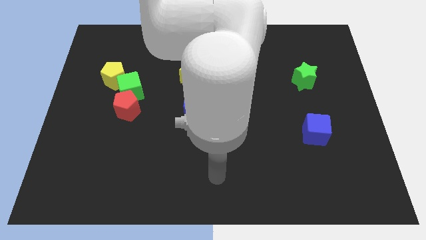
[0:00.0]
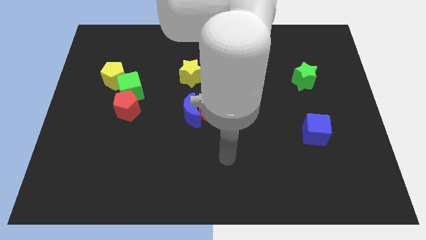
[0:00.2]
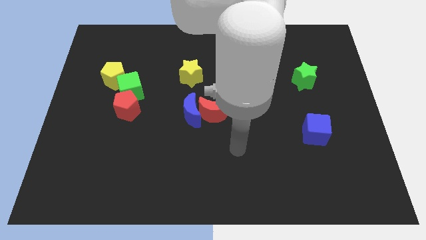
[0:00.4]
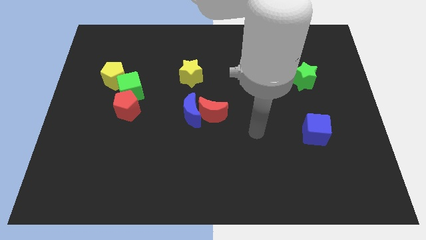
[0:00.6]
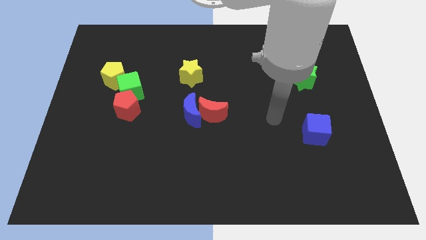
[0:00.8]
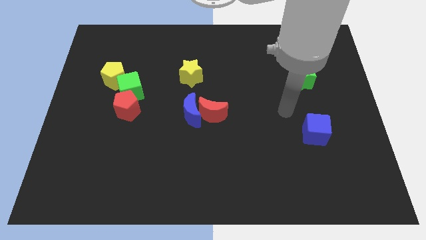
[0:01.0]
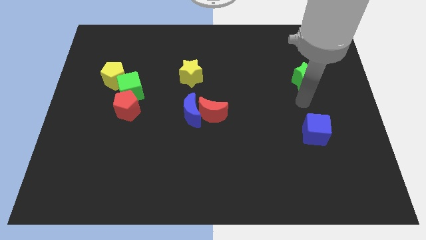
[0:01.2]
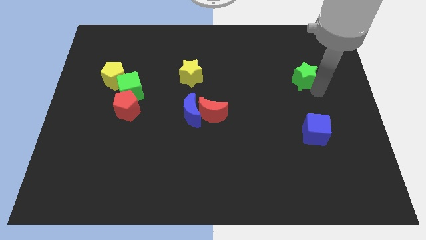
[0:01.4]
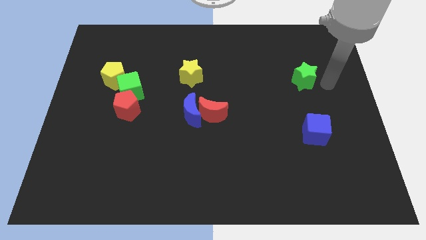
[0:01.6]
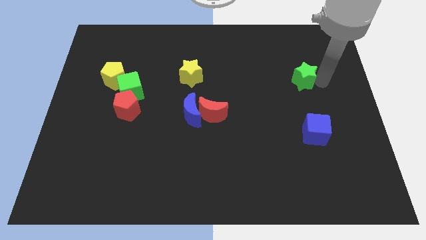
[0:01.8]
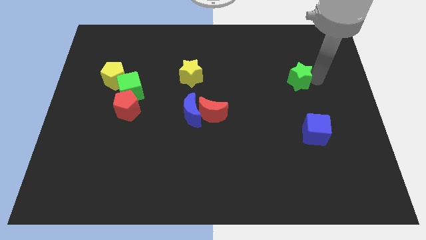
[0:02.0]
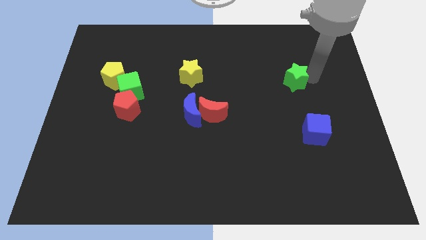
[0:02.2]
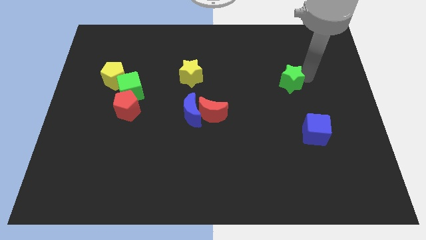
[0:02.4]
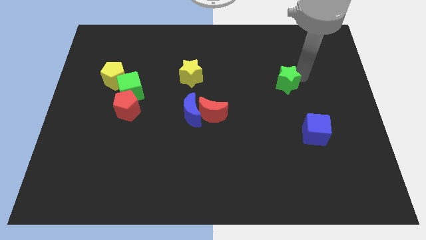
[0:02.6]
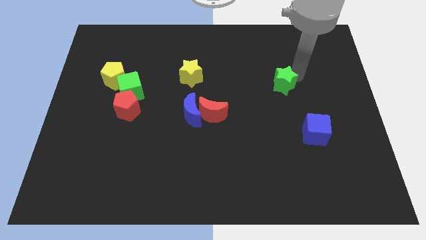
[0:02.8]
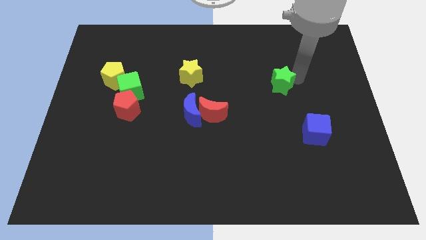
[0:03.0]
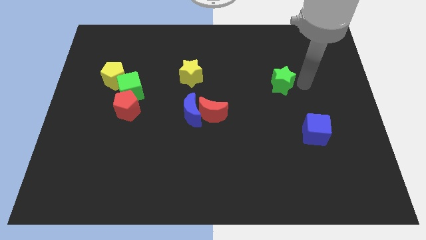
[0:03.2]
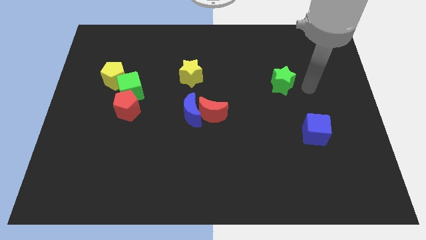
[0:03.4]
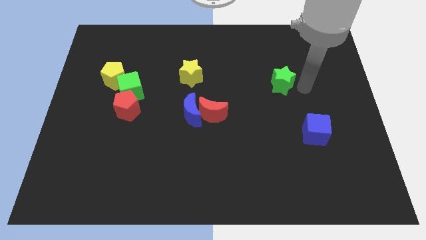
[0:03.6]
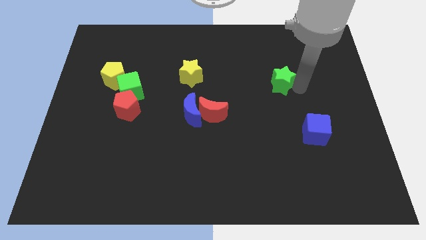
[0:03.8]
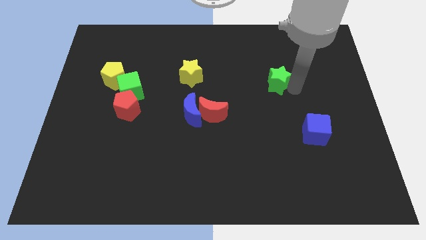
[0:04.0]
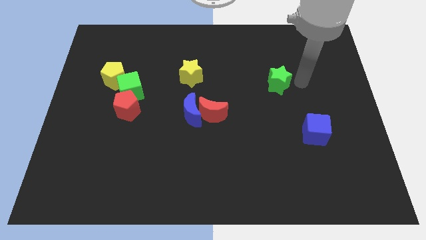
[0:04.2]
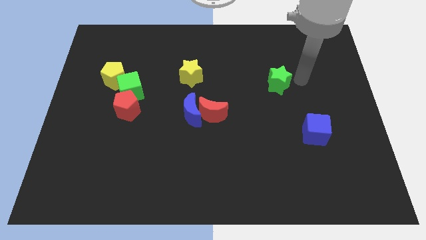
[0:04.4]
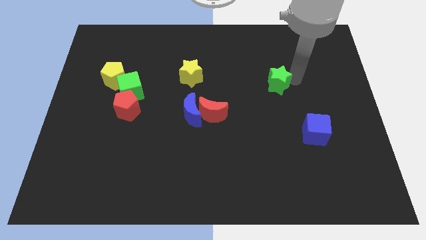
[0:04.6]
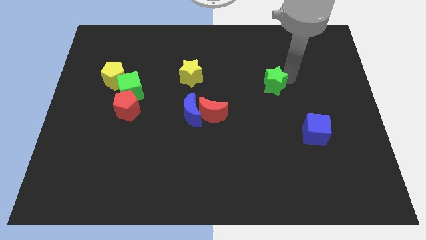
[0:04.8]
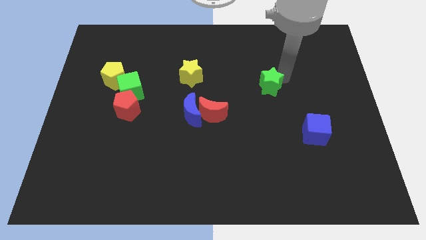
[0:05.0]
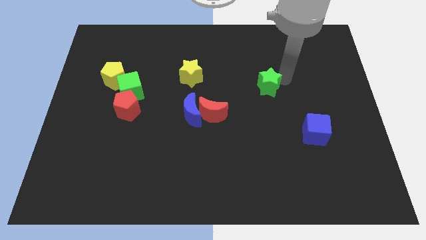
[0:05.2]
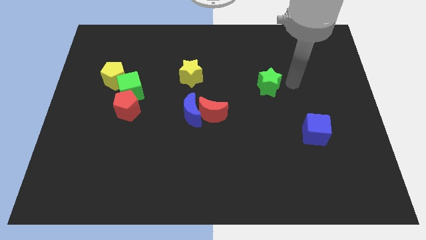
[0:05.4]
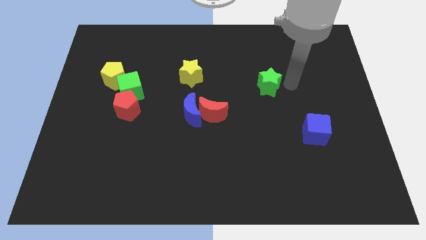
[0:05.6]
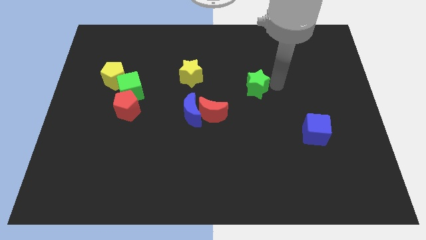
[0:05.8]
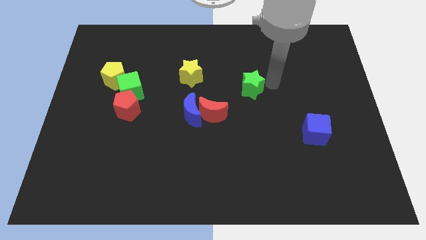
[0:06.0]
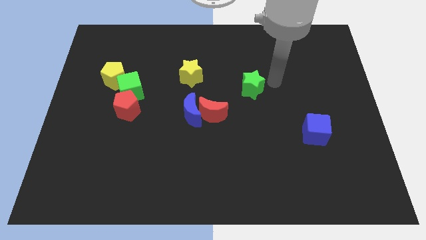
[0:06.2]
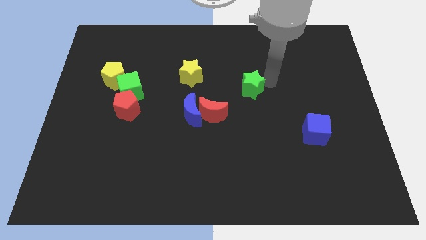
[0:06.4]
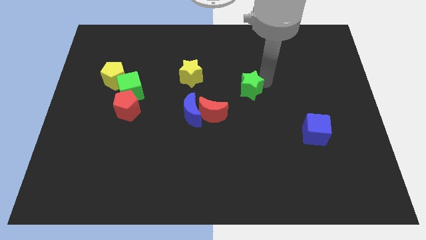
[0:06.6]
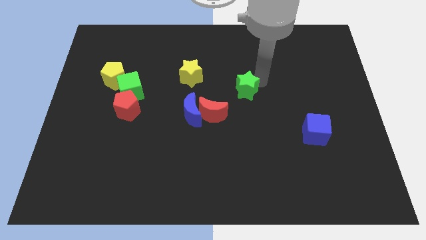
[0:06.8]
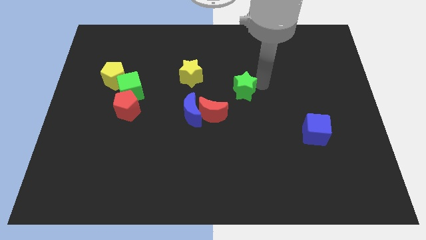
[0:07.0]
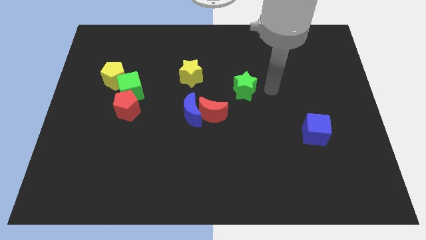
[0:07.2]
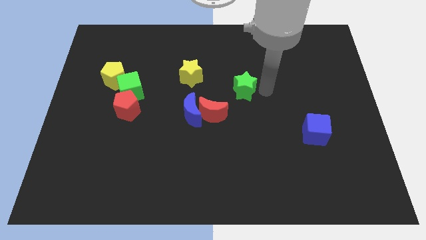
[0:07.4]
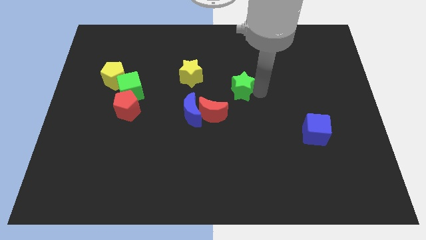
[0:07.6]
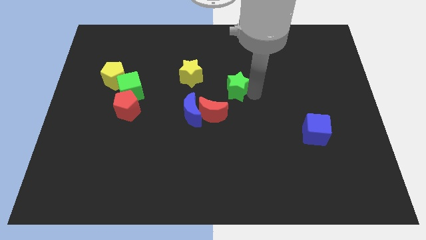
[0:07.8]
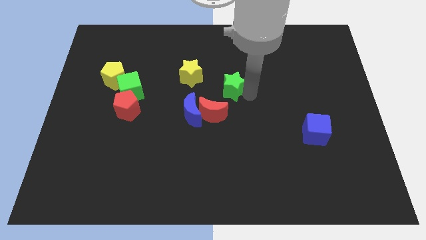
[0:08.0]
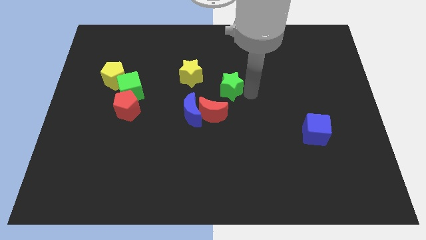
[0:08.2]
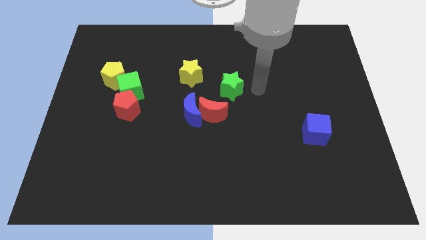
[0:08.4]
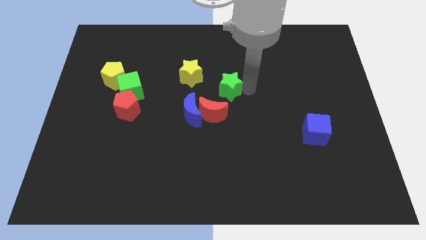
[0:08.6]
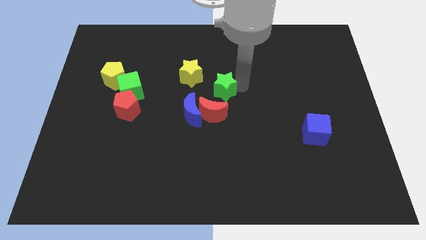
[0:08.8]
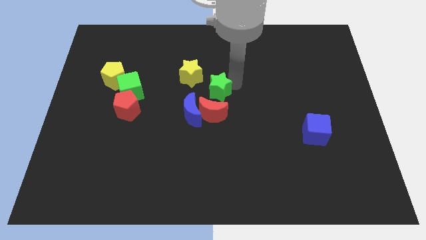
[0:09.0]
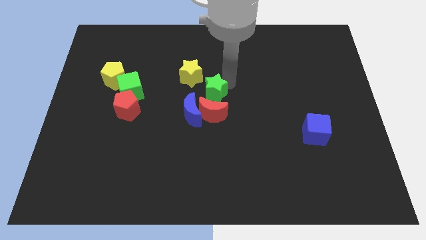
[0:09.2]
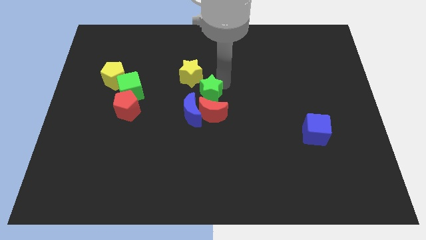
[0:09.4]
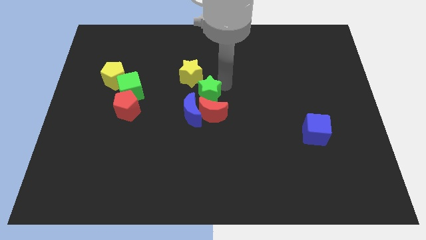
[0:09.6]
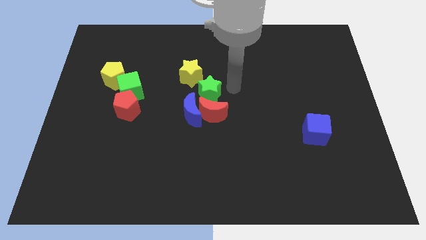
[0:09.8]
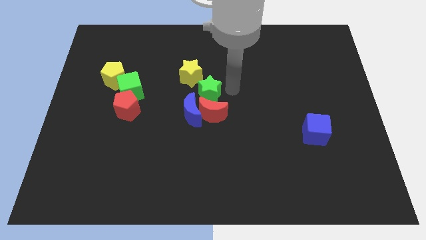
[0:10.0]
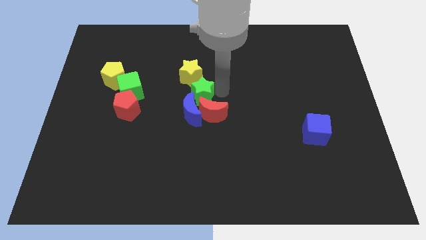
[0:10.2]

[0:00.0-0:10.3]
slide the green star towards the blue moon

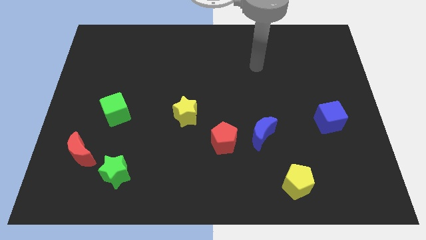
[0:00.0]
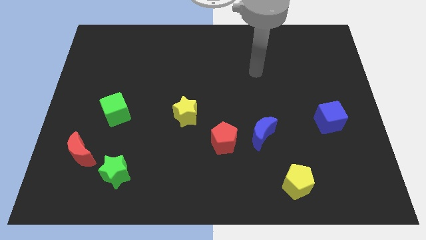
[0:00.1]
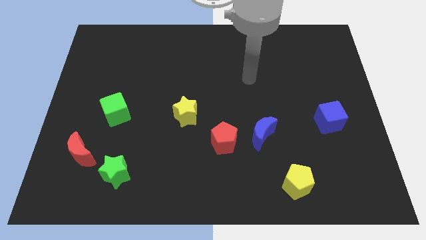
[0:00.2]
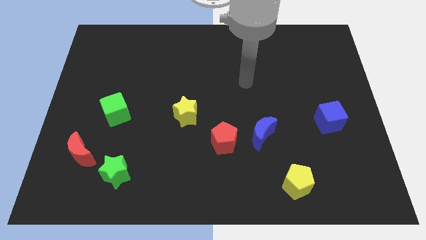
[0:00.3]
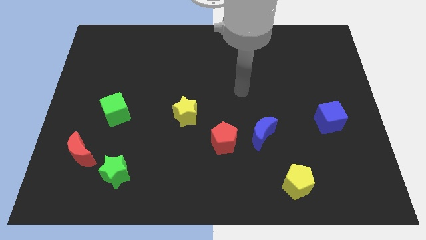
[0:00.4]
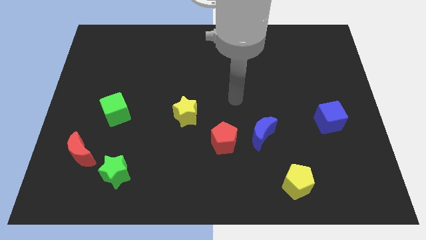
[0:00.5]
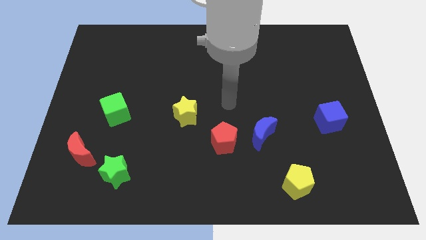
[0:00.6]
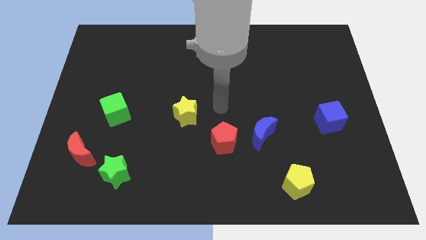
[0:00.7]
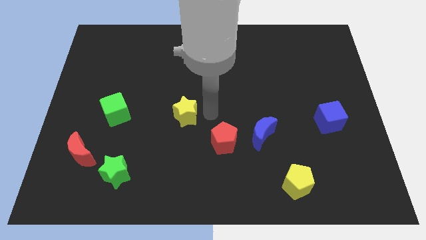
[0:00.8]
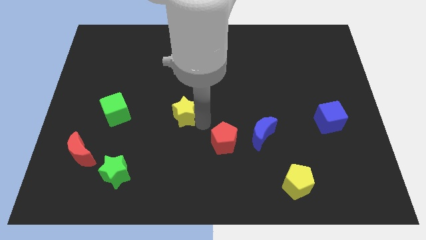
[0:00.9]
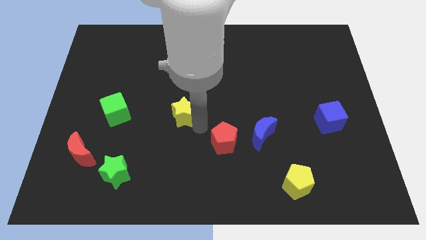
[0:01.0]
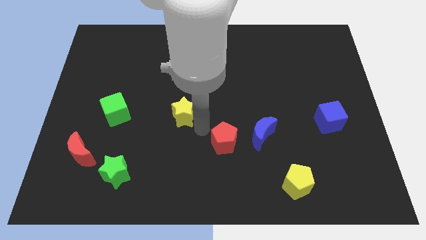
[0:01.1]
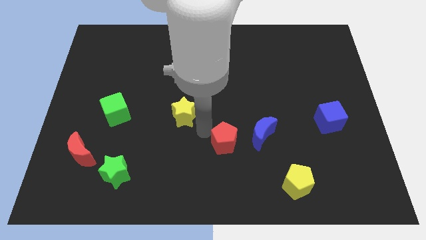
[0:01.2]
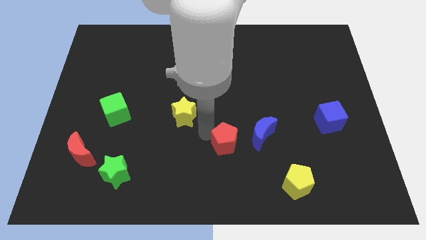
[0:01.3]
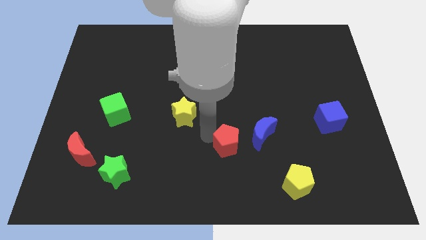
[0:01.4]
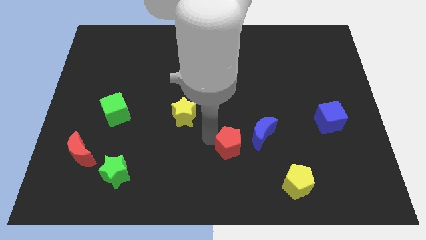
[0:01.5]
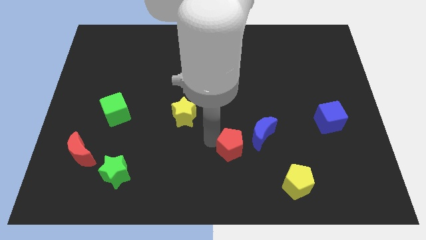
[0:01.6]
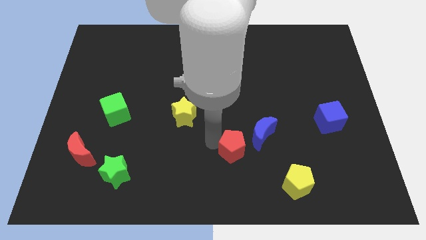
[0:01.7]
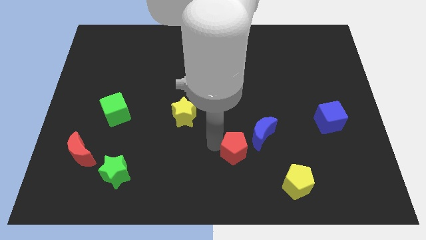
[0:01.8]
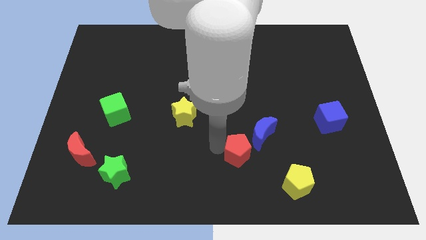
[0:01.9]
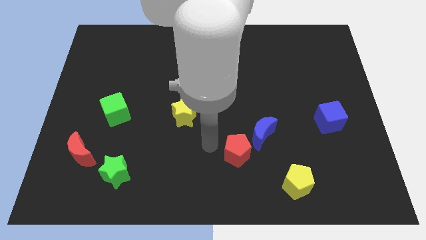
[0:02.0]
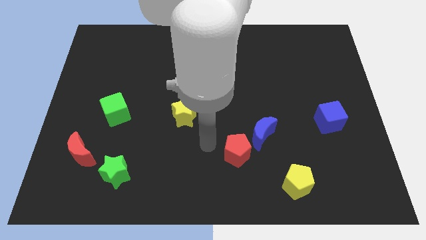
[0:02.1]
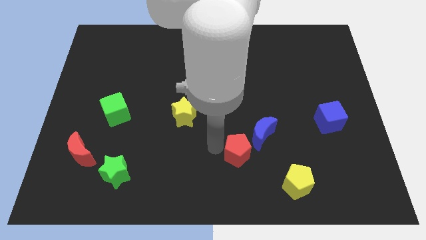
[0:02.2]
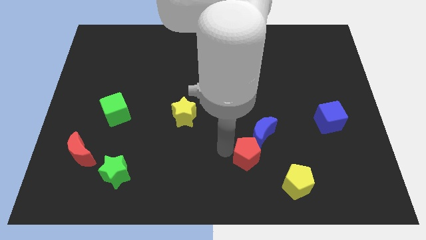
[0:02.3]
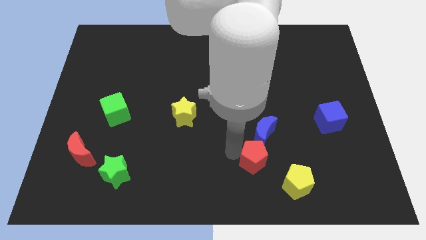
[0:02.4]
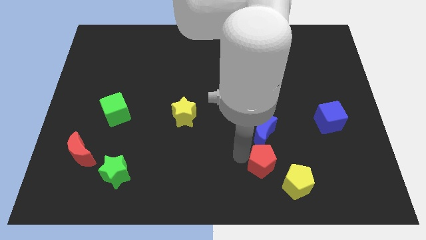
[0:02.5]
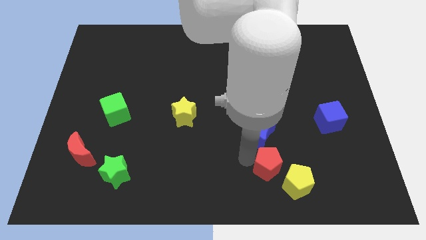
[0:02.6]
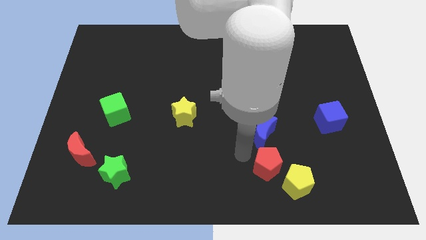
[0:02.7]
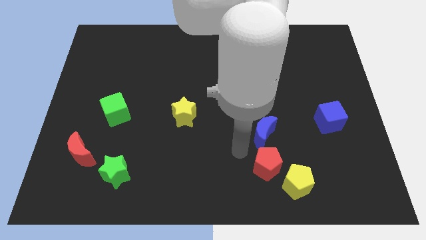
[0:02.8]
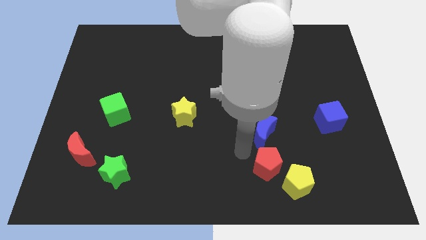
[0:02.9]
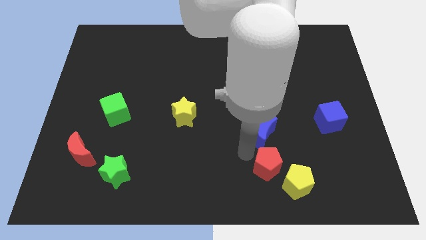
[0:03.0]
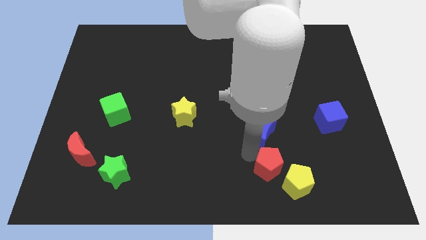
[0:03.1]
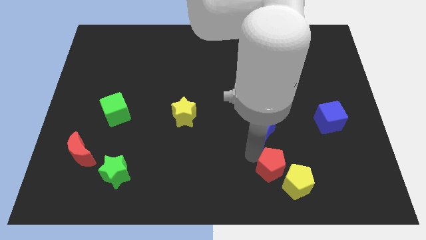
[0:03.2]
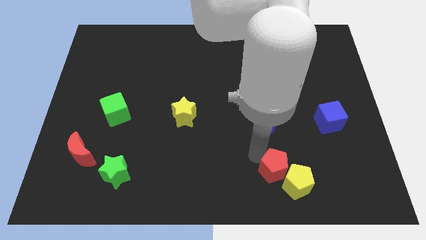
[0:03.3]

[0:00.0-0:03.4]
move the red pentagon close to the yellow pentagon
